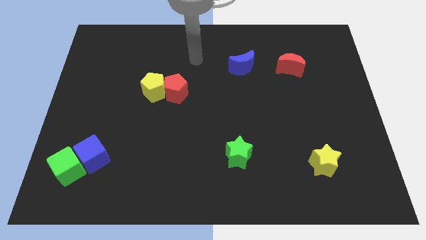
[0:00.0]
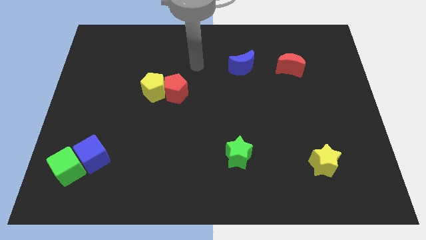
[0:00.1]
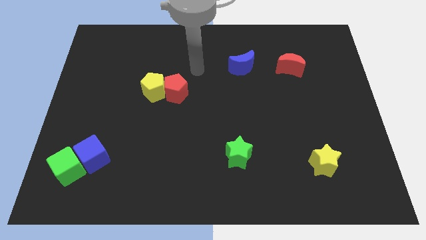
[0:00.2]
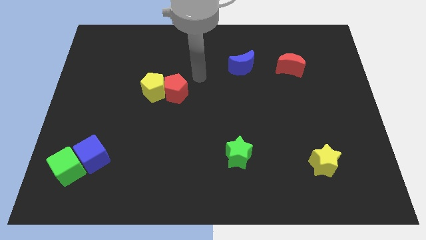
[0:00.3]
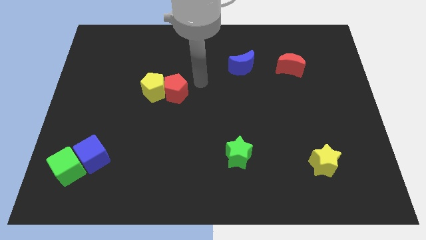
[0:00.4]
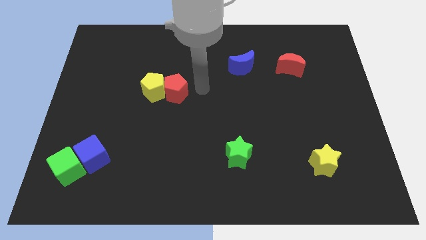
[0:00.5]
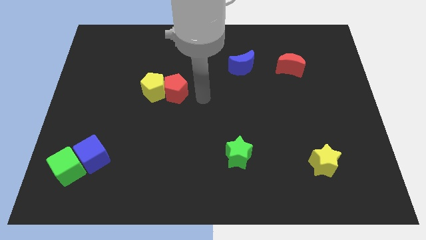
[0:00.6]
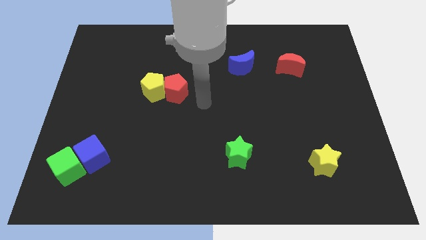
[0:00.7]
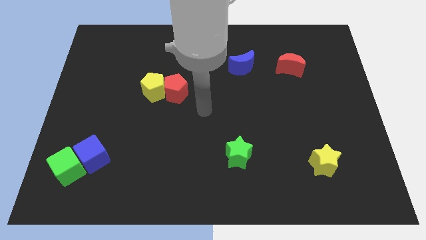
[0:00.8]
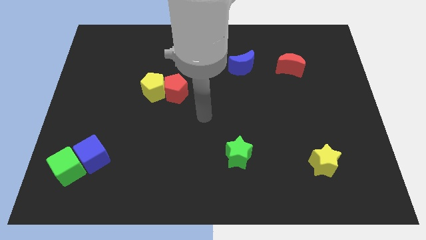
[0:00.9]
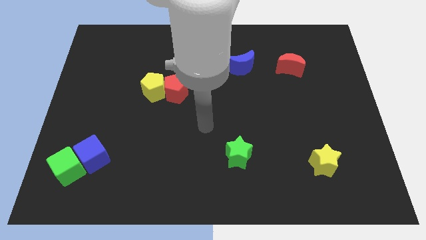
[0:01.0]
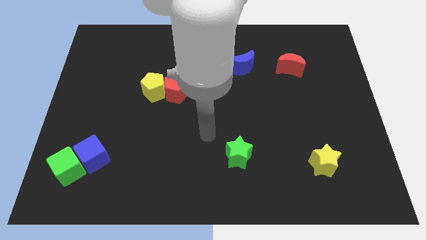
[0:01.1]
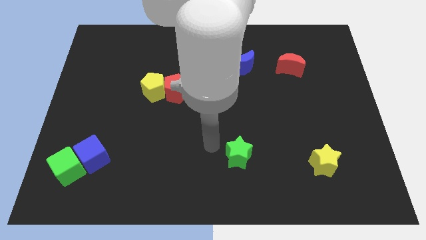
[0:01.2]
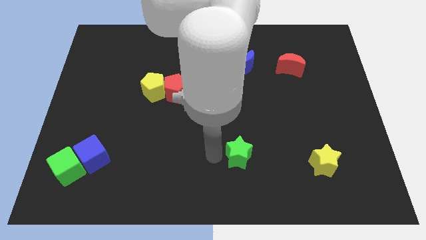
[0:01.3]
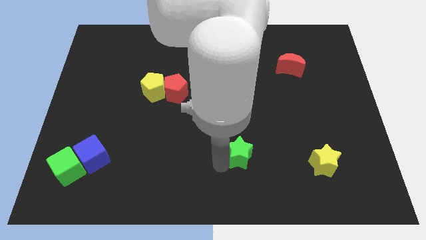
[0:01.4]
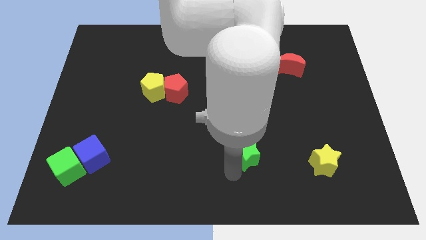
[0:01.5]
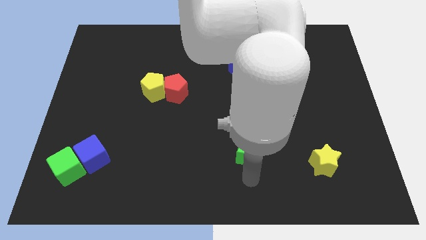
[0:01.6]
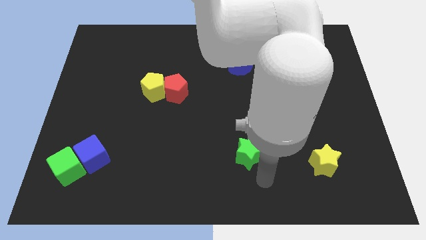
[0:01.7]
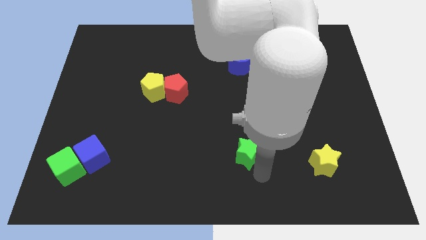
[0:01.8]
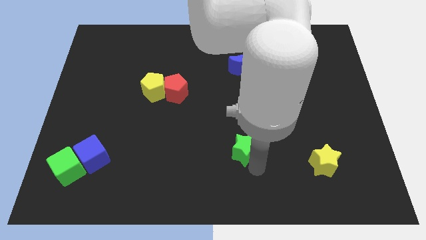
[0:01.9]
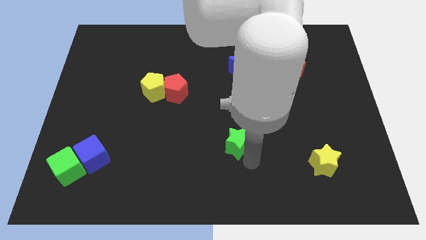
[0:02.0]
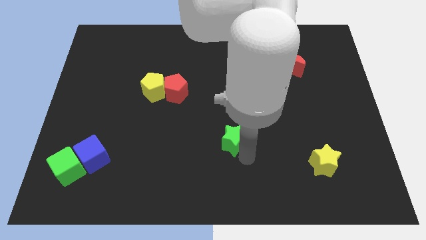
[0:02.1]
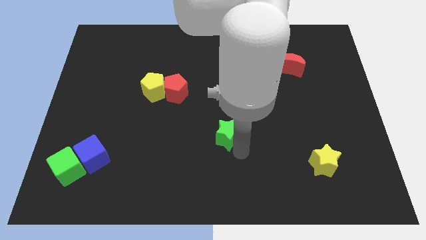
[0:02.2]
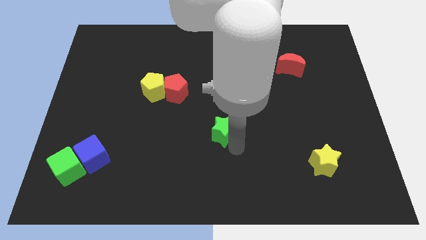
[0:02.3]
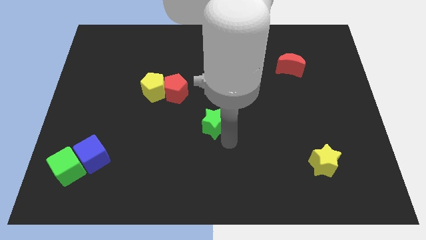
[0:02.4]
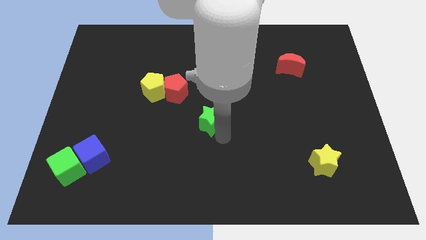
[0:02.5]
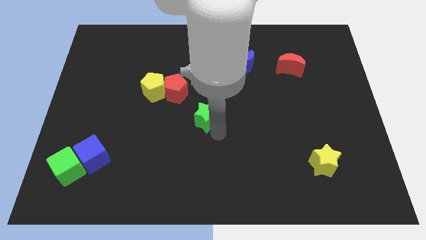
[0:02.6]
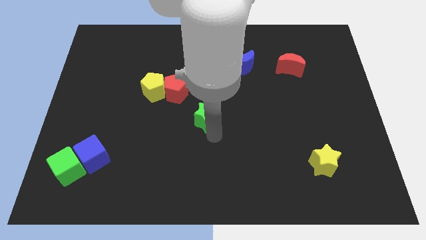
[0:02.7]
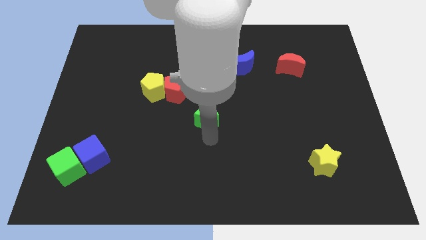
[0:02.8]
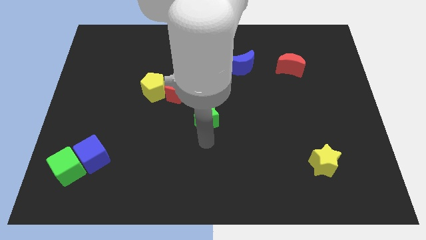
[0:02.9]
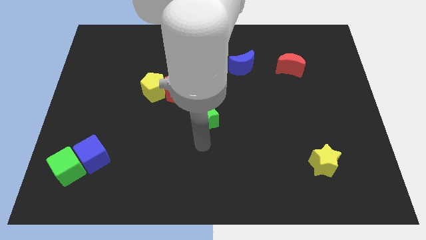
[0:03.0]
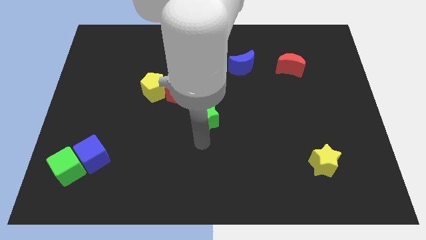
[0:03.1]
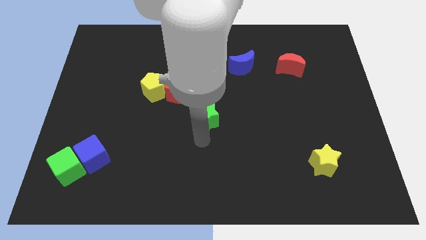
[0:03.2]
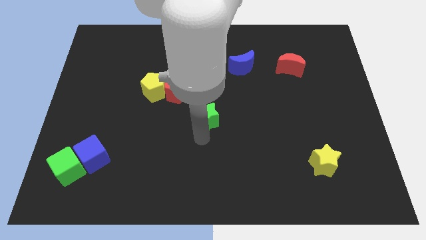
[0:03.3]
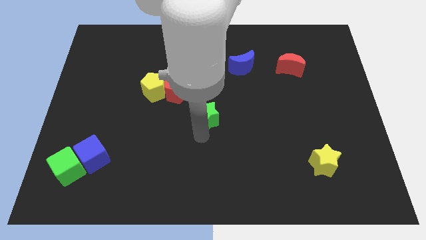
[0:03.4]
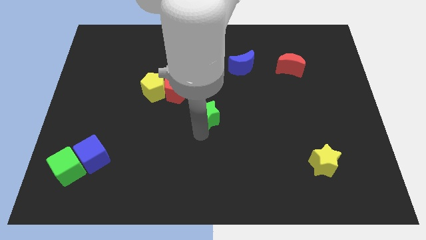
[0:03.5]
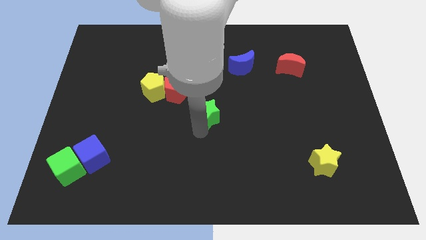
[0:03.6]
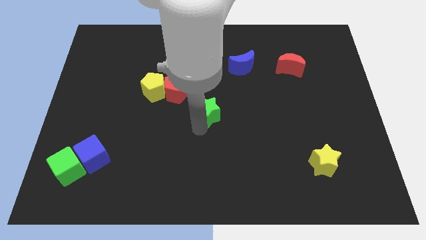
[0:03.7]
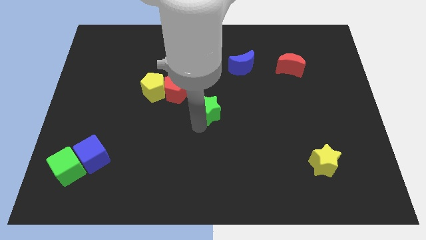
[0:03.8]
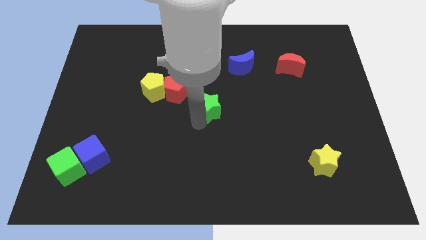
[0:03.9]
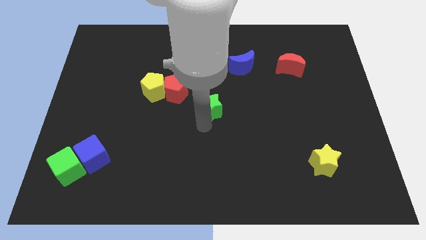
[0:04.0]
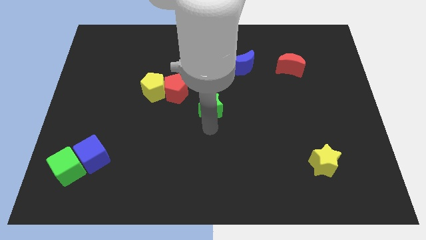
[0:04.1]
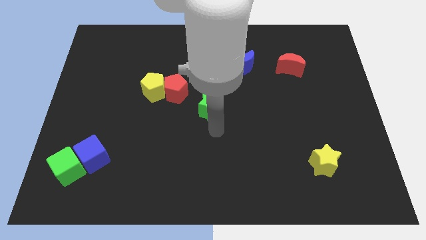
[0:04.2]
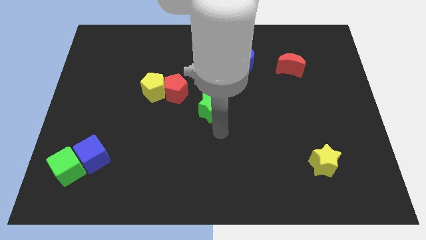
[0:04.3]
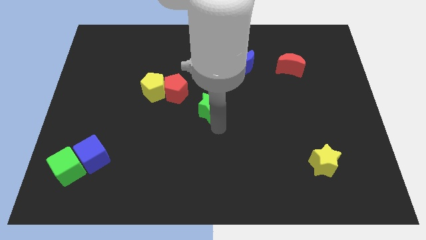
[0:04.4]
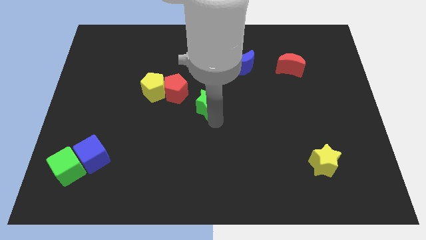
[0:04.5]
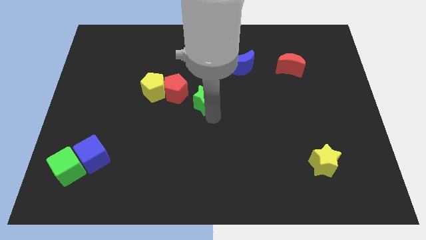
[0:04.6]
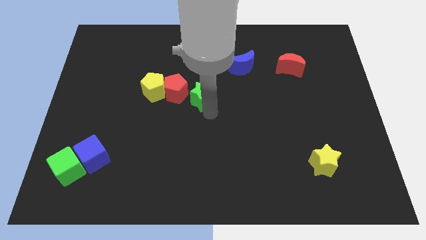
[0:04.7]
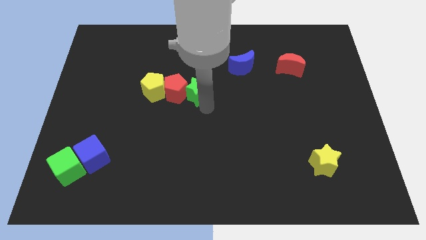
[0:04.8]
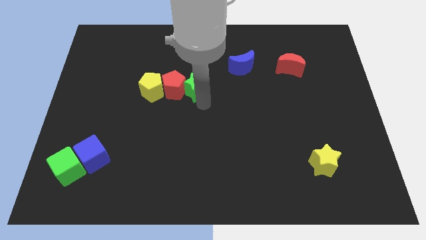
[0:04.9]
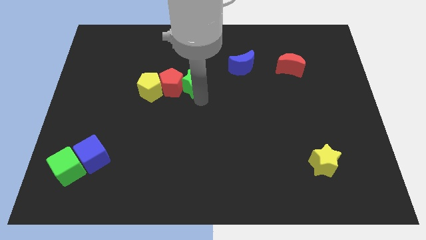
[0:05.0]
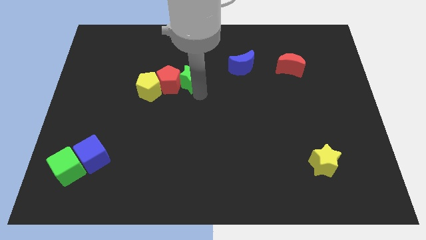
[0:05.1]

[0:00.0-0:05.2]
move the green star diagonally up and to the left

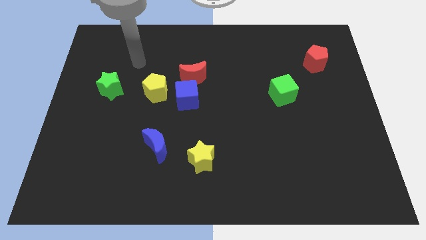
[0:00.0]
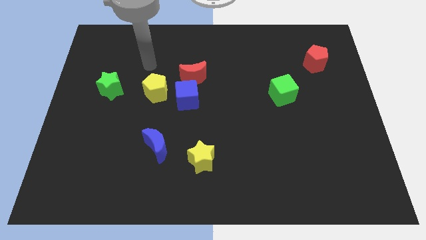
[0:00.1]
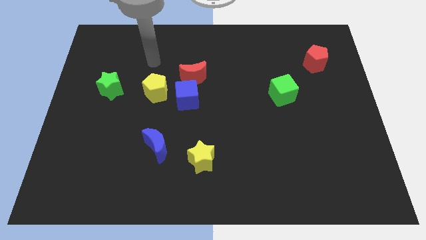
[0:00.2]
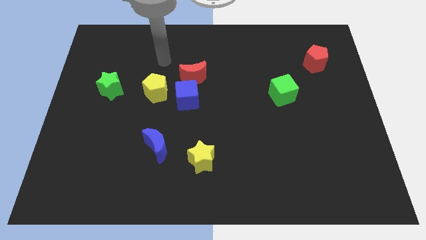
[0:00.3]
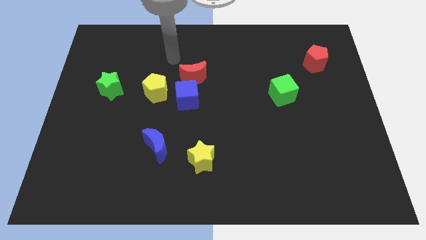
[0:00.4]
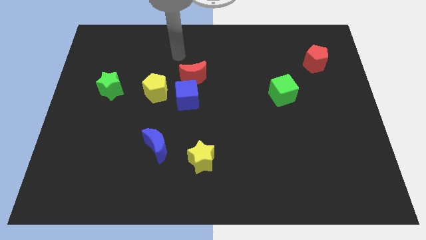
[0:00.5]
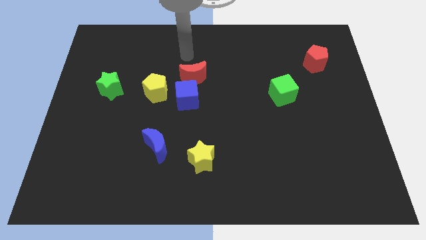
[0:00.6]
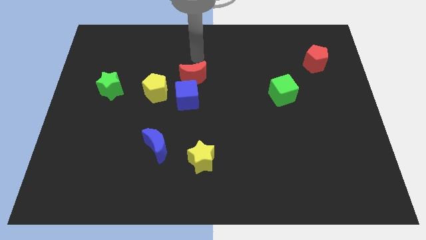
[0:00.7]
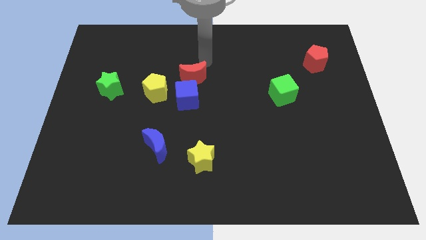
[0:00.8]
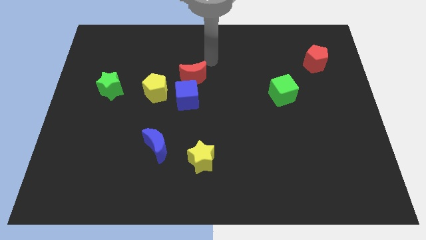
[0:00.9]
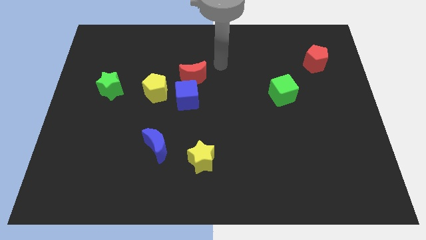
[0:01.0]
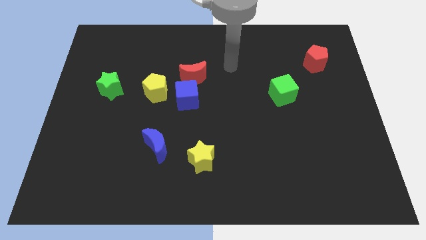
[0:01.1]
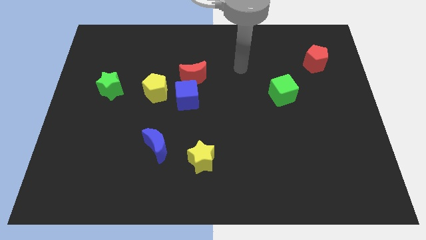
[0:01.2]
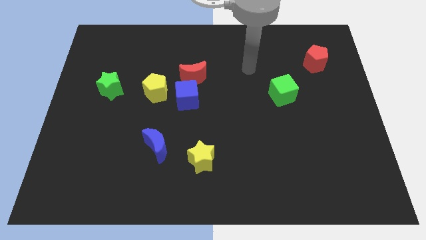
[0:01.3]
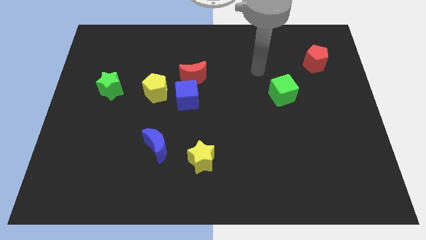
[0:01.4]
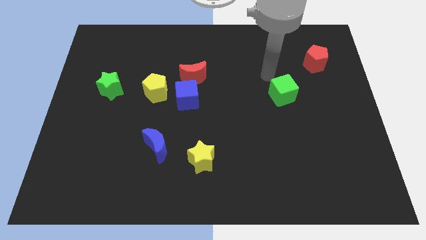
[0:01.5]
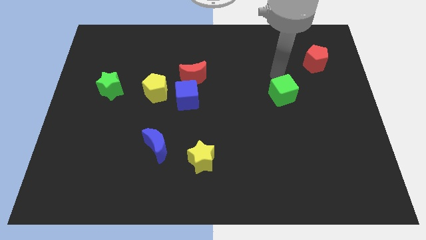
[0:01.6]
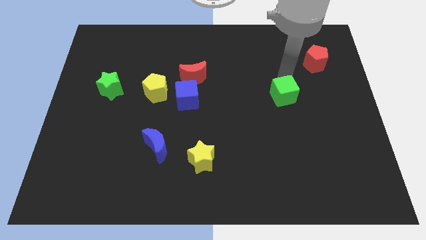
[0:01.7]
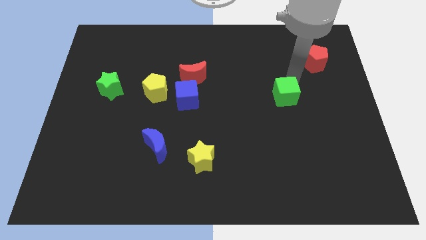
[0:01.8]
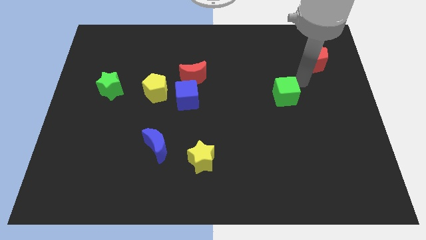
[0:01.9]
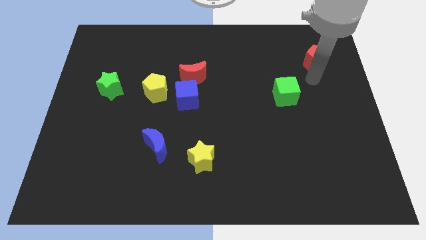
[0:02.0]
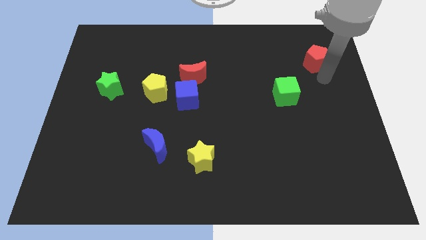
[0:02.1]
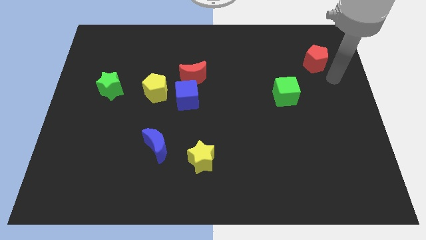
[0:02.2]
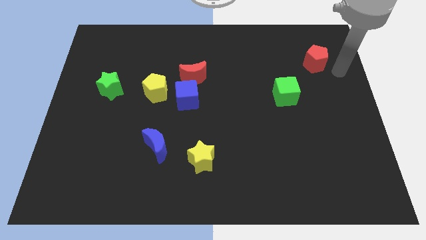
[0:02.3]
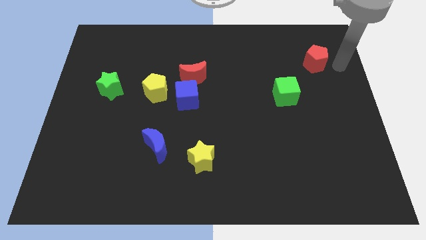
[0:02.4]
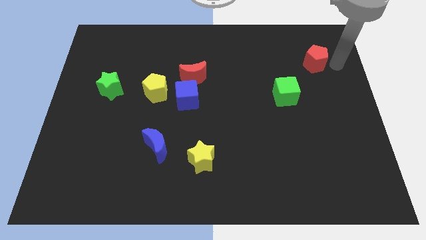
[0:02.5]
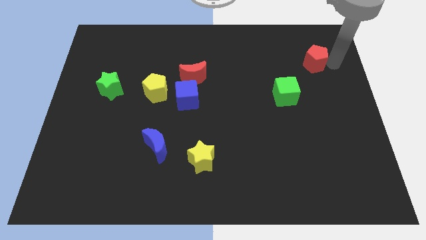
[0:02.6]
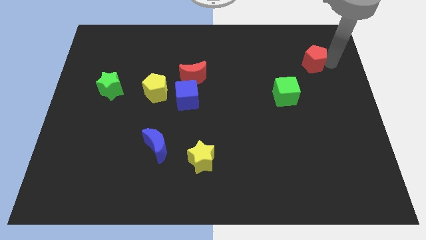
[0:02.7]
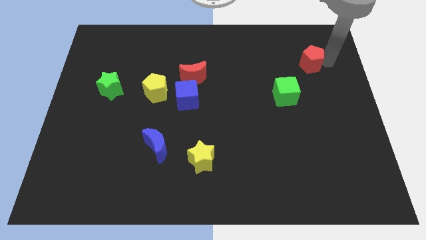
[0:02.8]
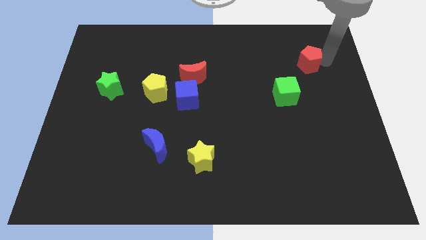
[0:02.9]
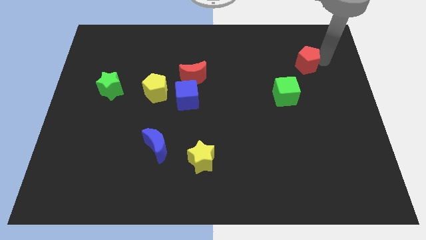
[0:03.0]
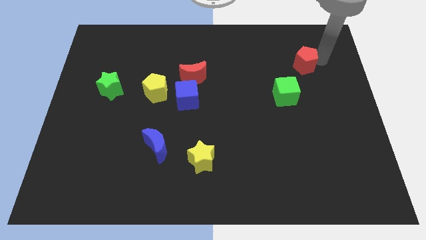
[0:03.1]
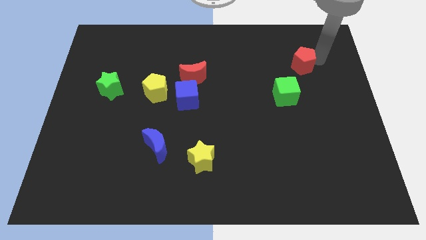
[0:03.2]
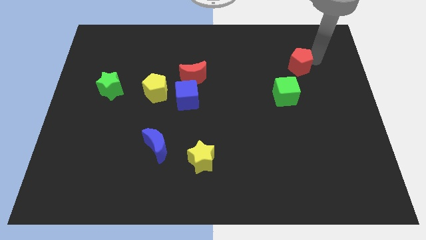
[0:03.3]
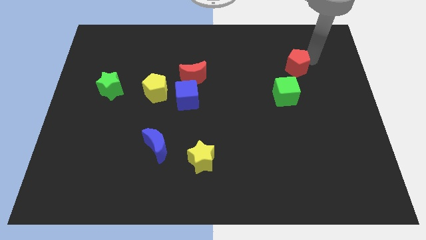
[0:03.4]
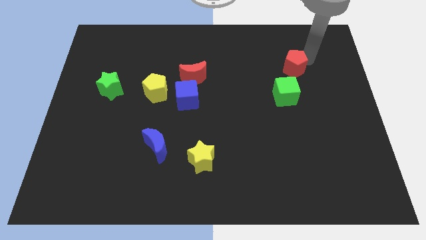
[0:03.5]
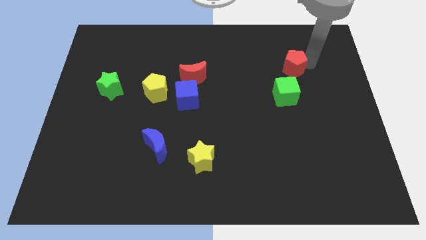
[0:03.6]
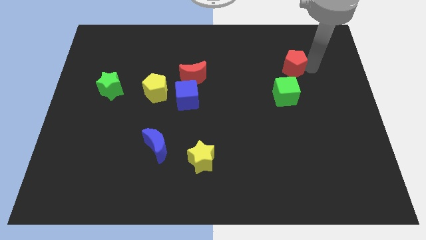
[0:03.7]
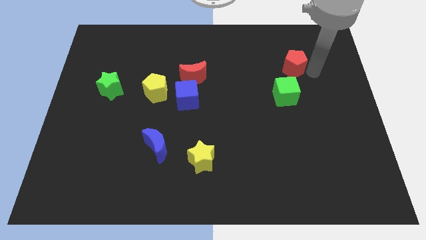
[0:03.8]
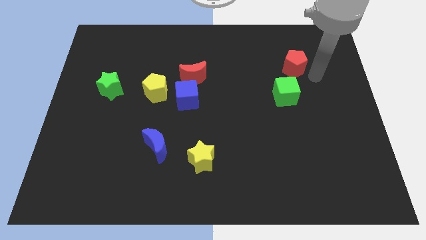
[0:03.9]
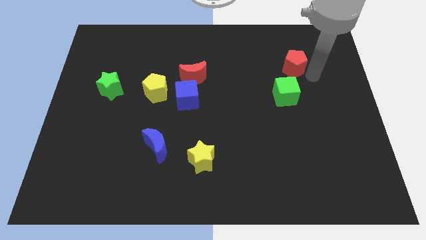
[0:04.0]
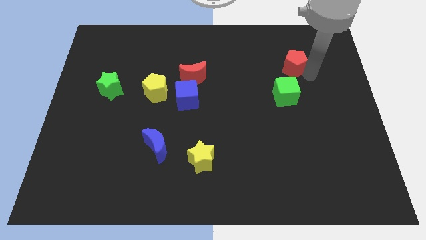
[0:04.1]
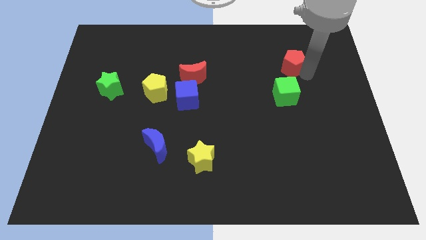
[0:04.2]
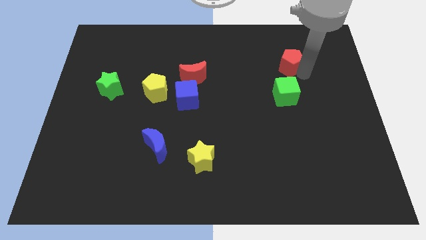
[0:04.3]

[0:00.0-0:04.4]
slightly push the red pentagon left
